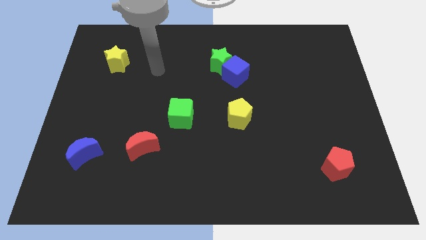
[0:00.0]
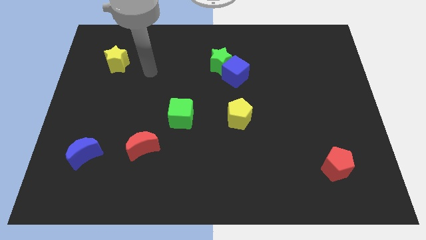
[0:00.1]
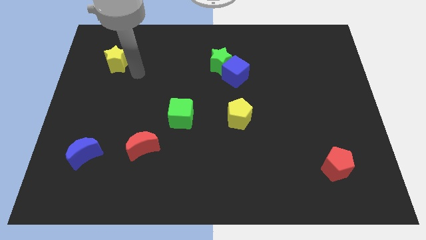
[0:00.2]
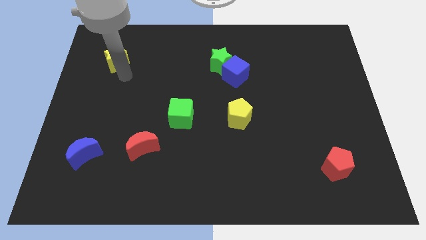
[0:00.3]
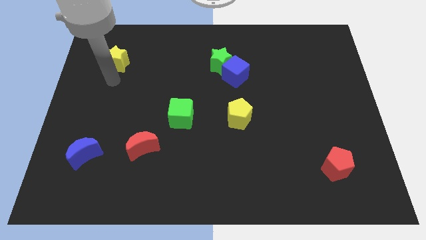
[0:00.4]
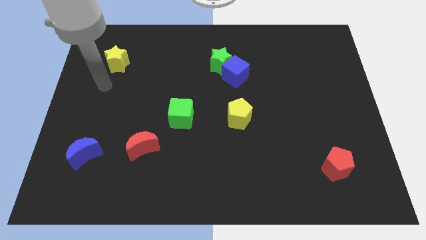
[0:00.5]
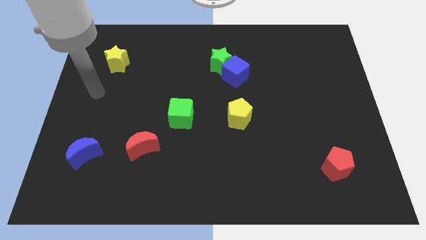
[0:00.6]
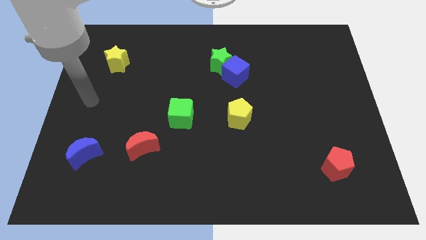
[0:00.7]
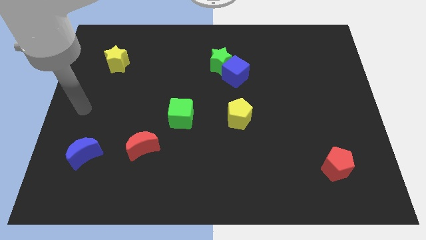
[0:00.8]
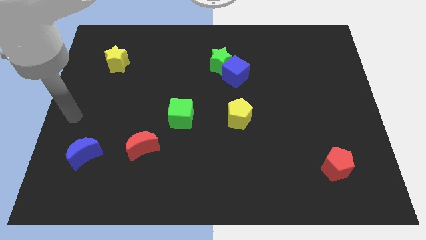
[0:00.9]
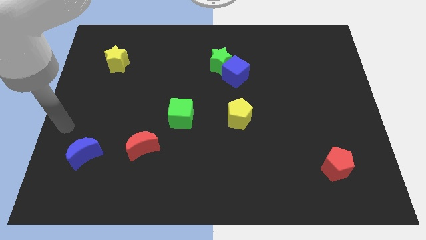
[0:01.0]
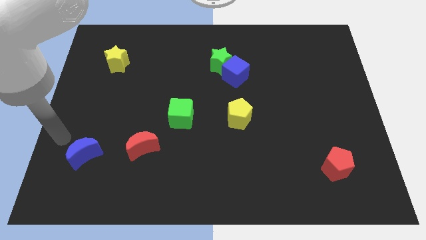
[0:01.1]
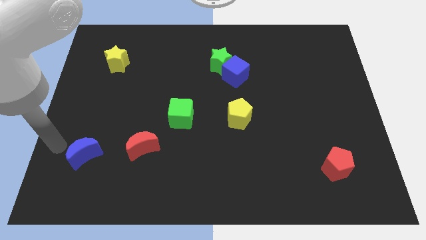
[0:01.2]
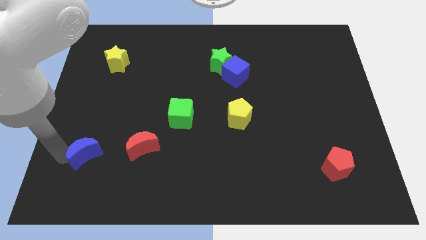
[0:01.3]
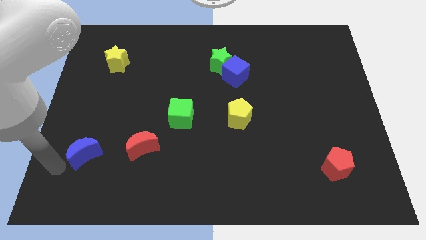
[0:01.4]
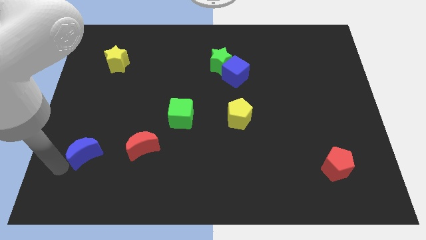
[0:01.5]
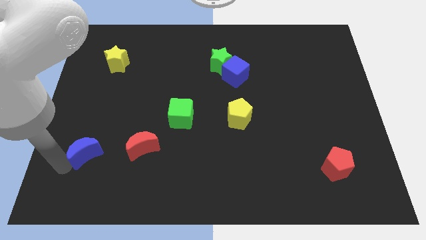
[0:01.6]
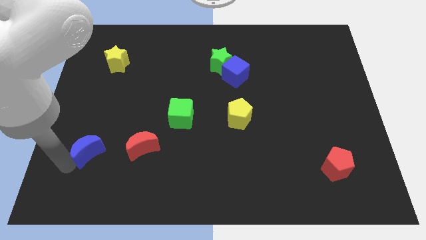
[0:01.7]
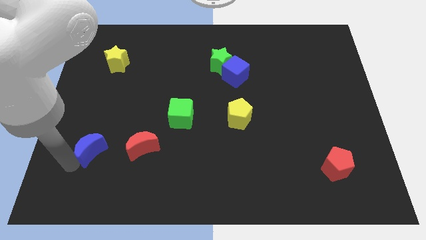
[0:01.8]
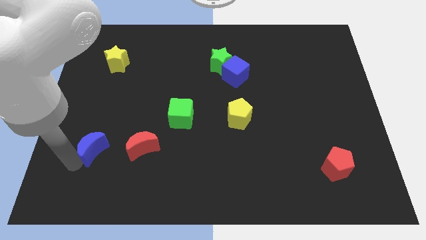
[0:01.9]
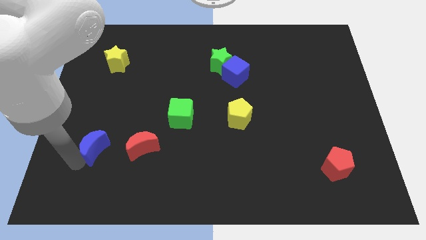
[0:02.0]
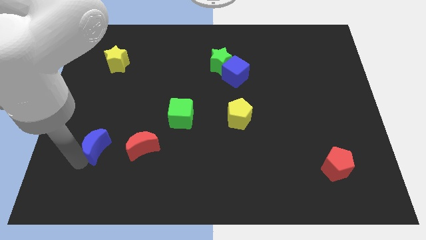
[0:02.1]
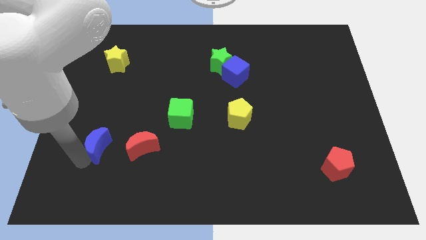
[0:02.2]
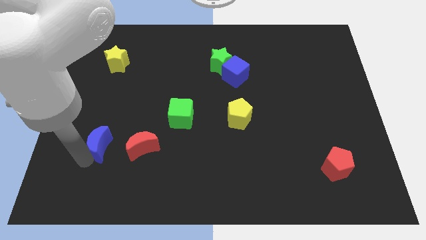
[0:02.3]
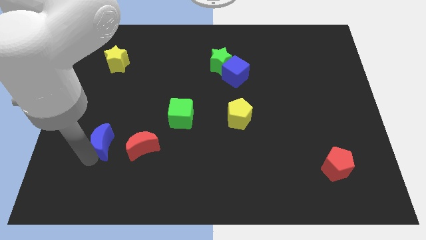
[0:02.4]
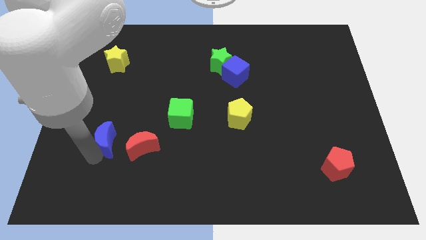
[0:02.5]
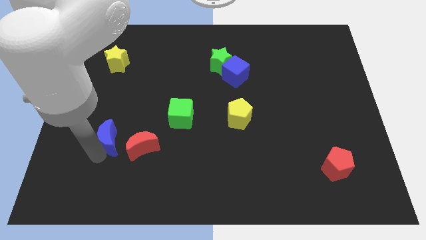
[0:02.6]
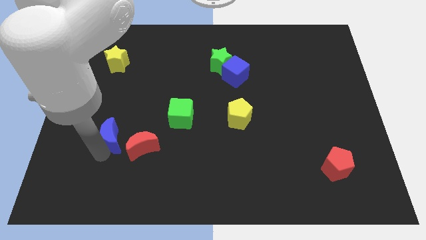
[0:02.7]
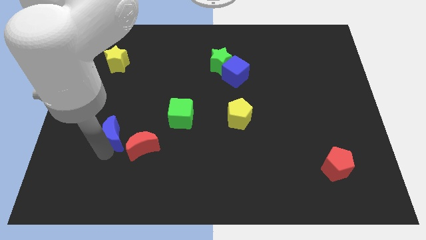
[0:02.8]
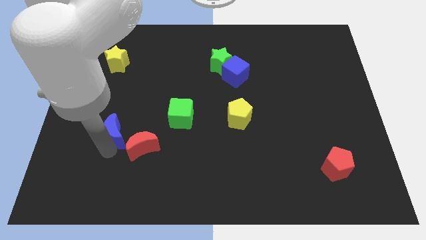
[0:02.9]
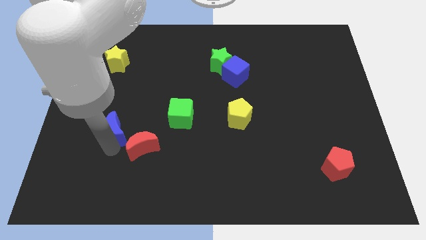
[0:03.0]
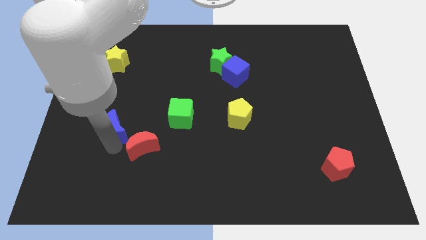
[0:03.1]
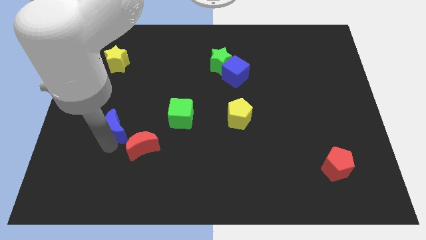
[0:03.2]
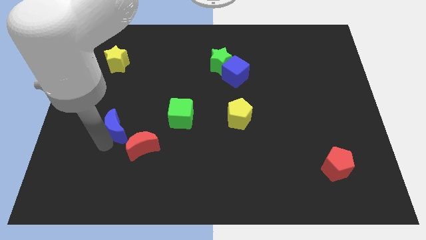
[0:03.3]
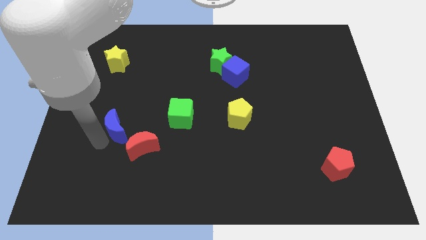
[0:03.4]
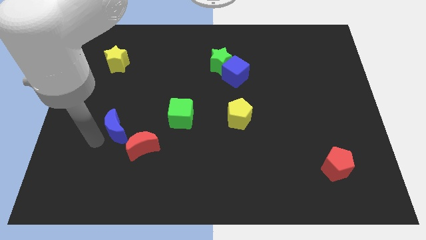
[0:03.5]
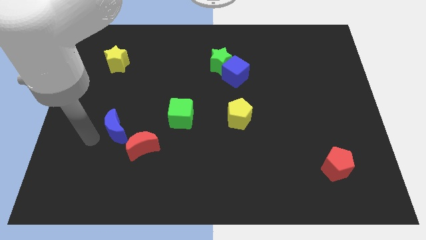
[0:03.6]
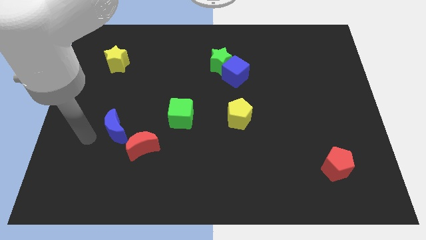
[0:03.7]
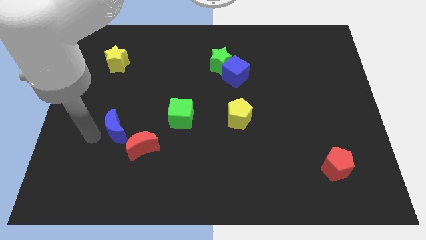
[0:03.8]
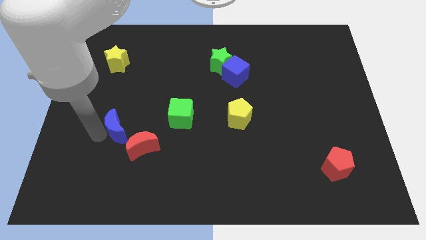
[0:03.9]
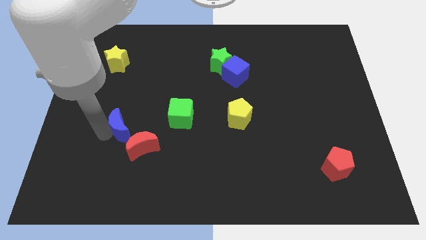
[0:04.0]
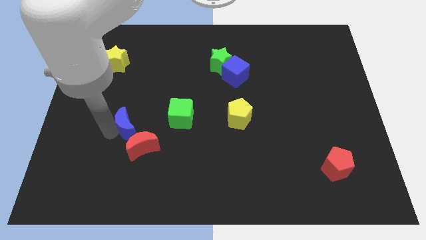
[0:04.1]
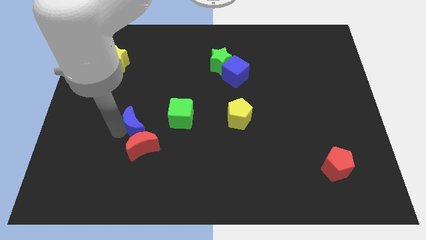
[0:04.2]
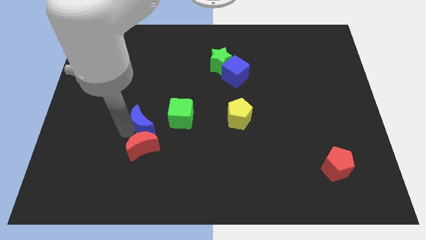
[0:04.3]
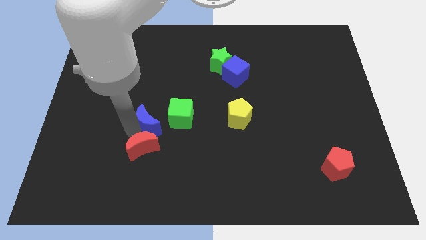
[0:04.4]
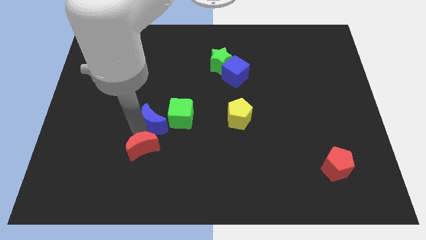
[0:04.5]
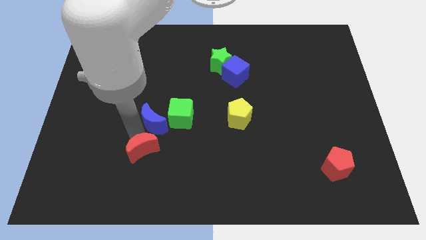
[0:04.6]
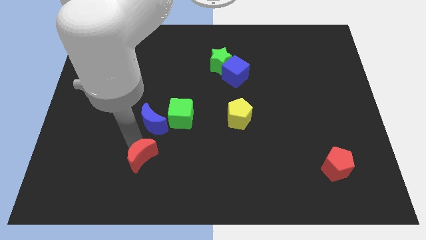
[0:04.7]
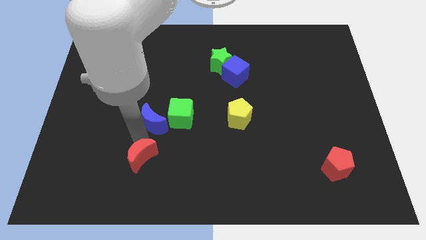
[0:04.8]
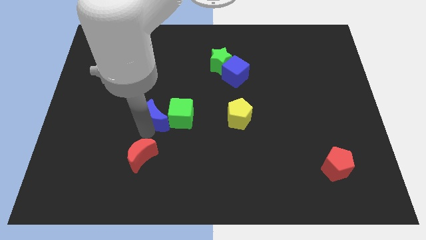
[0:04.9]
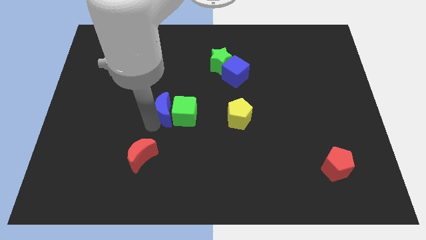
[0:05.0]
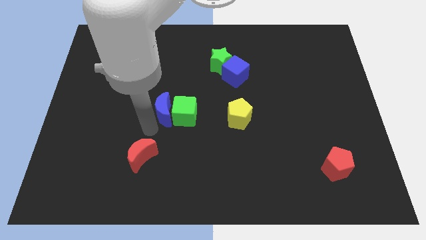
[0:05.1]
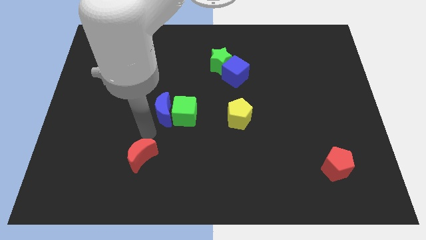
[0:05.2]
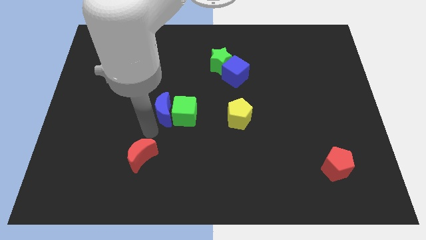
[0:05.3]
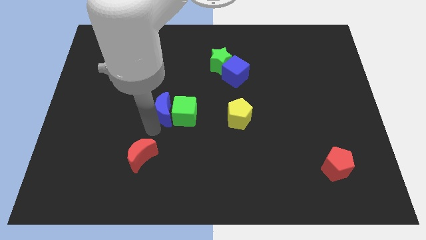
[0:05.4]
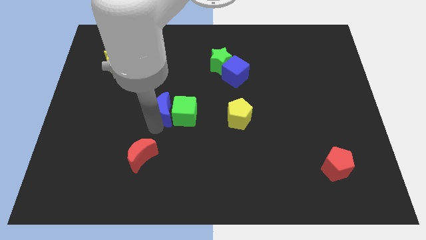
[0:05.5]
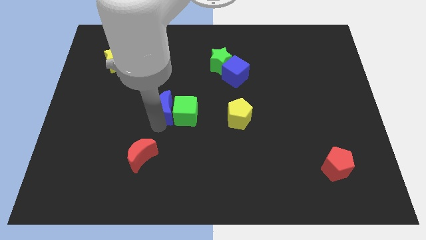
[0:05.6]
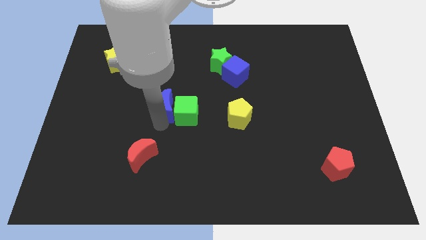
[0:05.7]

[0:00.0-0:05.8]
push the blue moon up and to the right diagonally

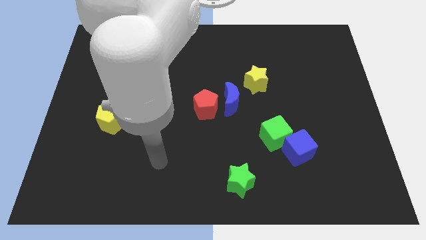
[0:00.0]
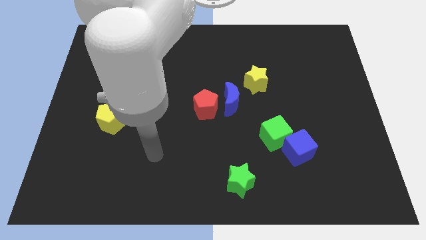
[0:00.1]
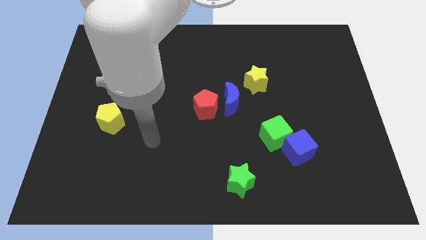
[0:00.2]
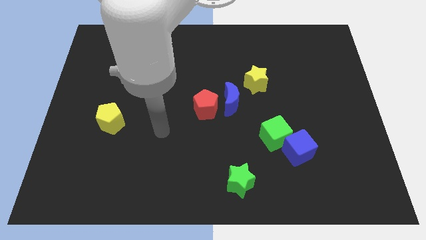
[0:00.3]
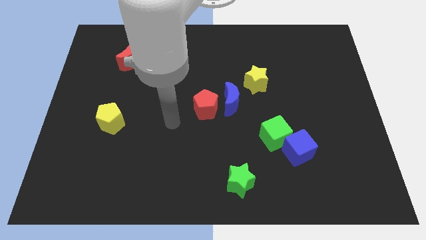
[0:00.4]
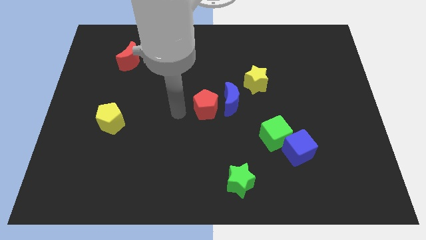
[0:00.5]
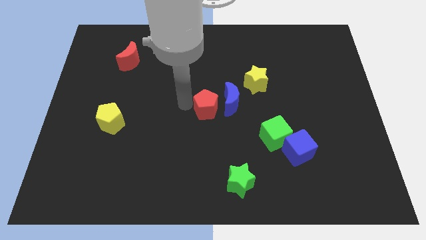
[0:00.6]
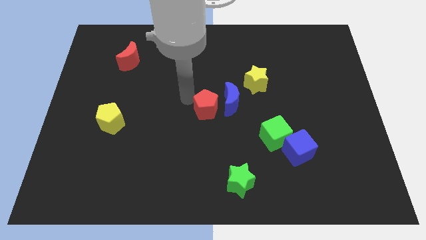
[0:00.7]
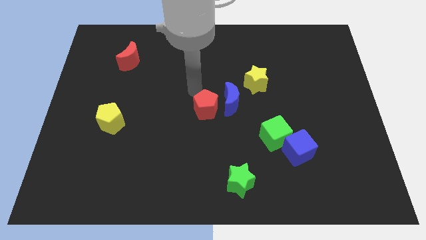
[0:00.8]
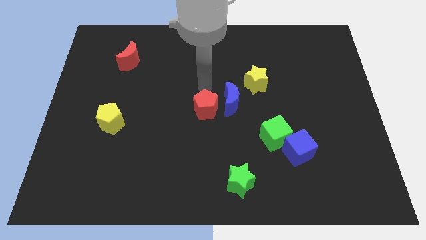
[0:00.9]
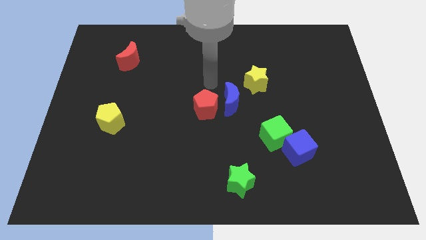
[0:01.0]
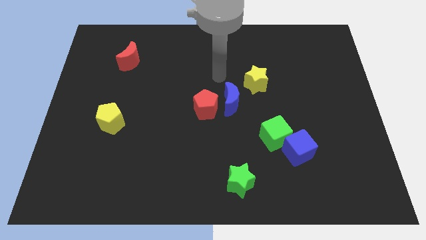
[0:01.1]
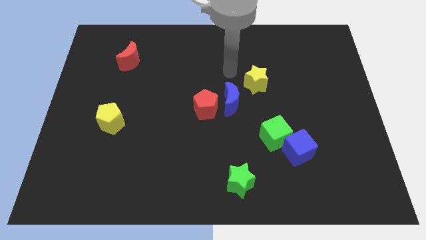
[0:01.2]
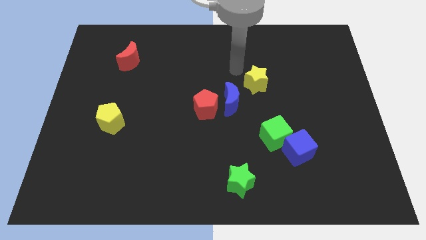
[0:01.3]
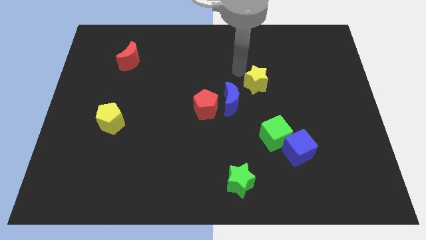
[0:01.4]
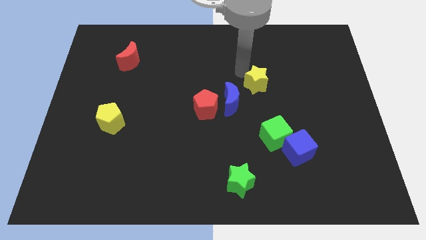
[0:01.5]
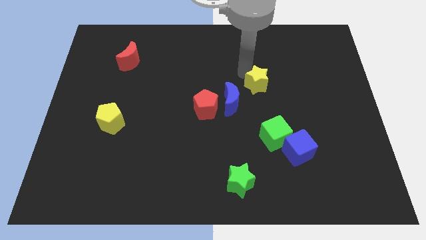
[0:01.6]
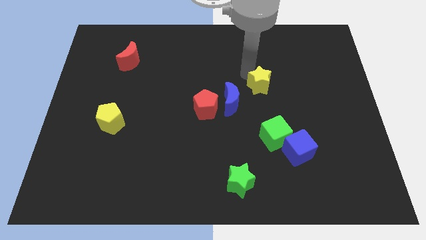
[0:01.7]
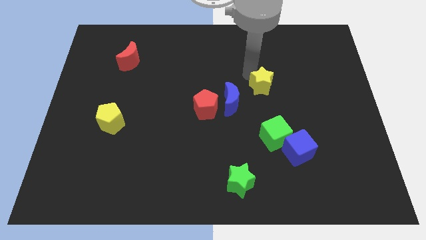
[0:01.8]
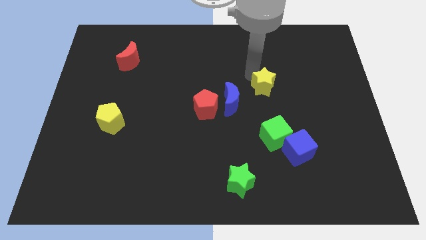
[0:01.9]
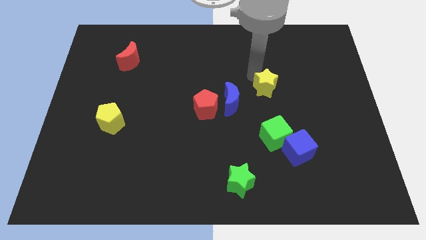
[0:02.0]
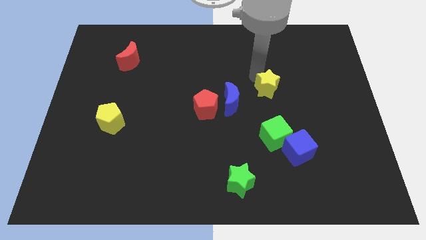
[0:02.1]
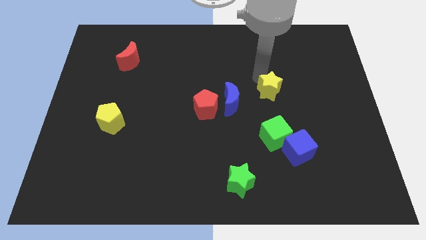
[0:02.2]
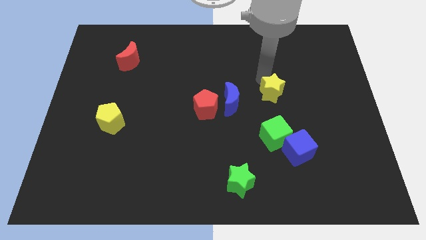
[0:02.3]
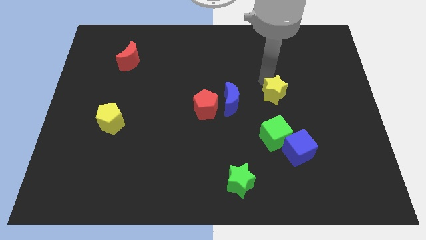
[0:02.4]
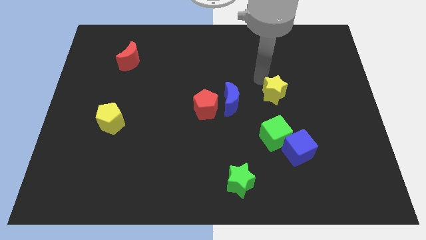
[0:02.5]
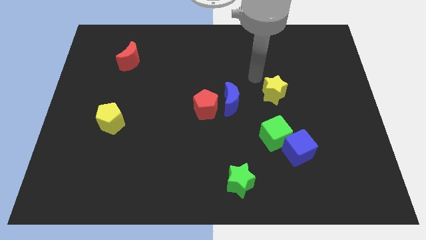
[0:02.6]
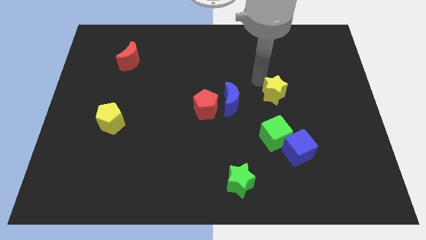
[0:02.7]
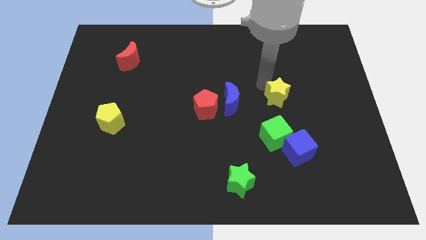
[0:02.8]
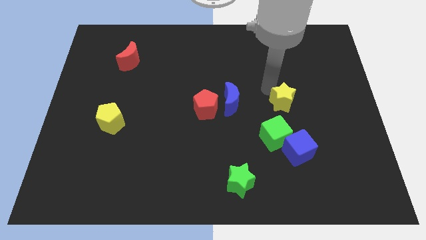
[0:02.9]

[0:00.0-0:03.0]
push the yellow star a little down and then right
